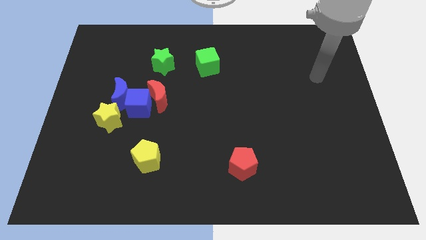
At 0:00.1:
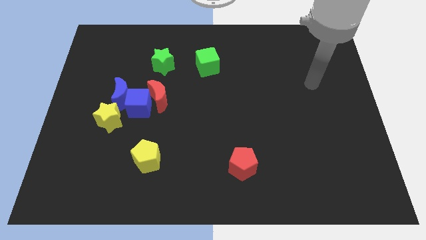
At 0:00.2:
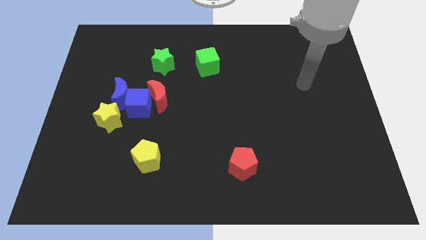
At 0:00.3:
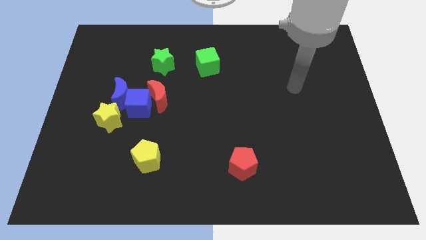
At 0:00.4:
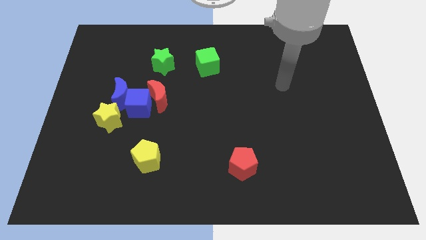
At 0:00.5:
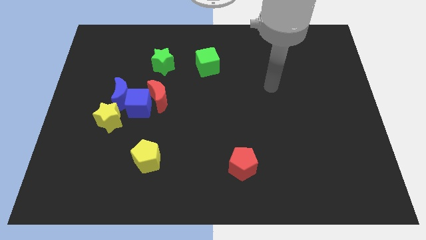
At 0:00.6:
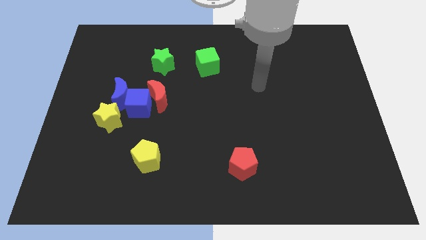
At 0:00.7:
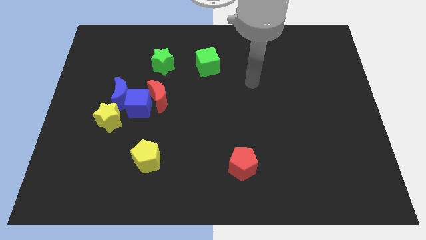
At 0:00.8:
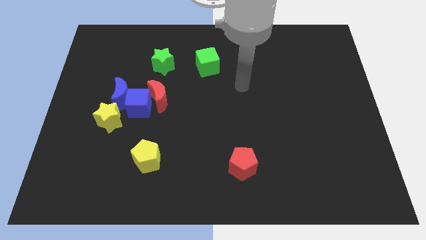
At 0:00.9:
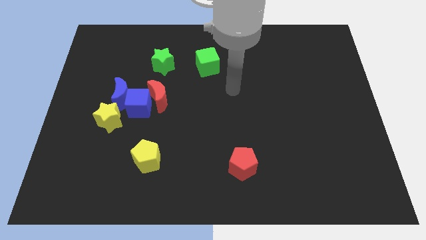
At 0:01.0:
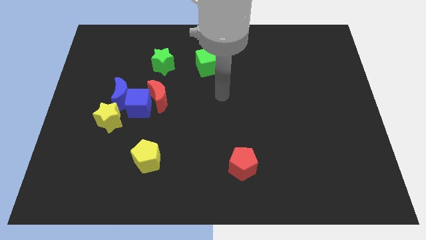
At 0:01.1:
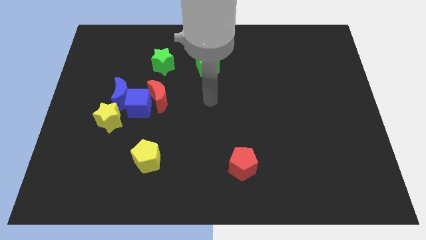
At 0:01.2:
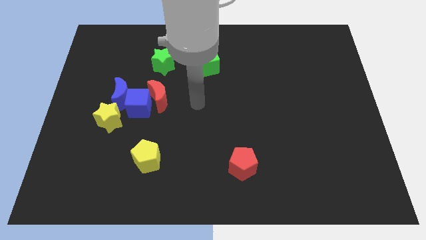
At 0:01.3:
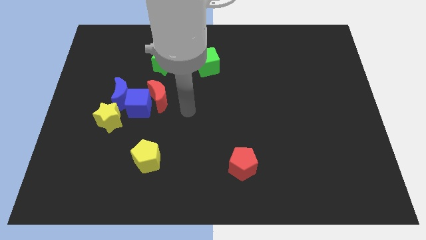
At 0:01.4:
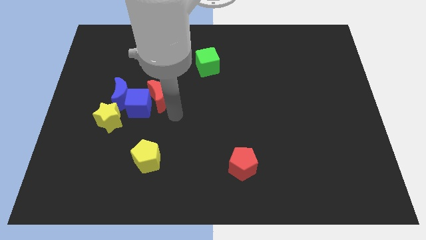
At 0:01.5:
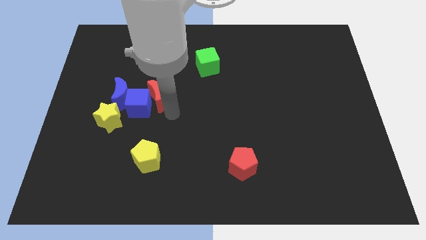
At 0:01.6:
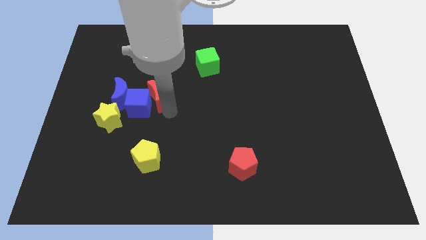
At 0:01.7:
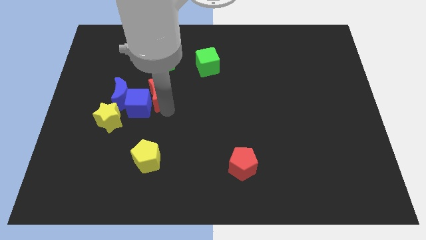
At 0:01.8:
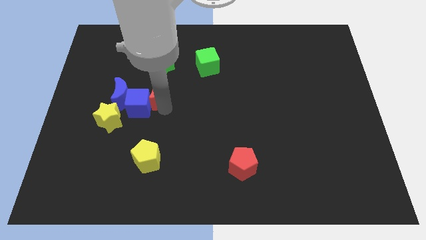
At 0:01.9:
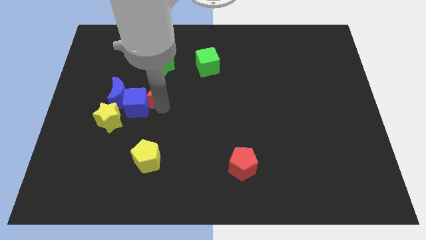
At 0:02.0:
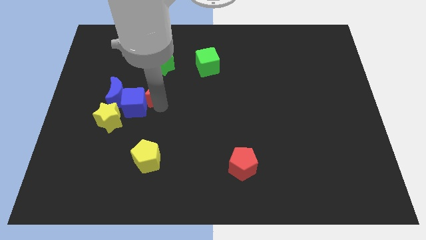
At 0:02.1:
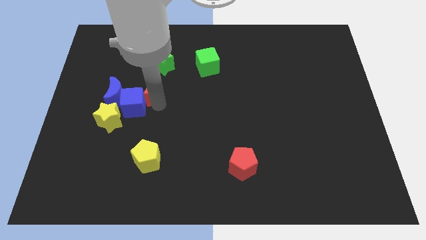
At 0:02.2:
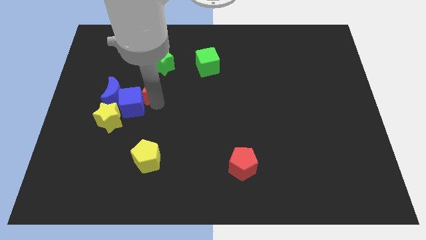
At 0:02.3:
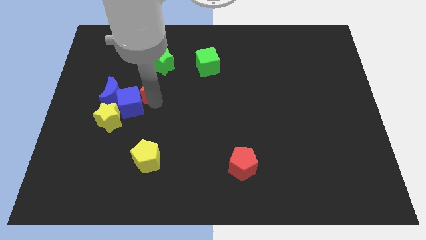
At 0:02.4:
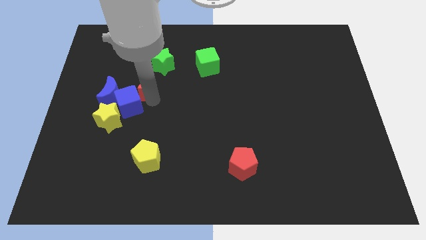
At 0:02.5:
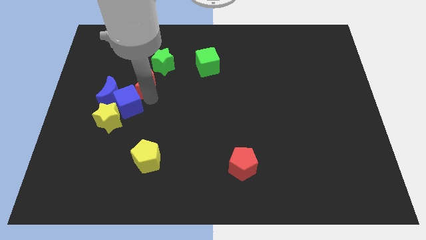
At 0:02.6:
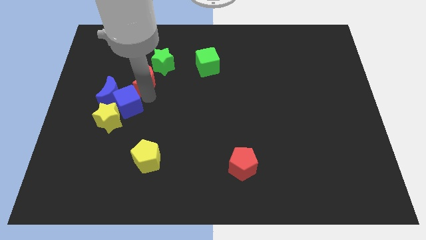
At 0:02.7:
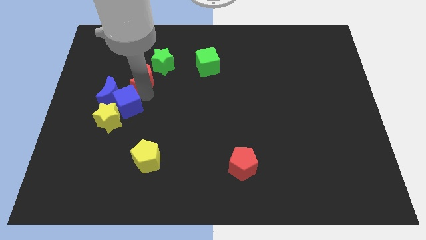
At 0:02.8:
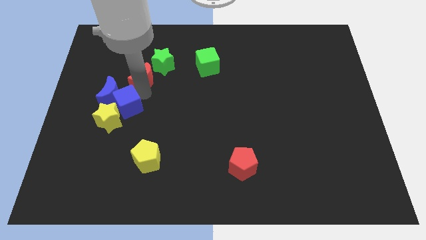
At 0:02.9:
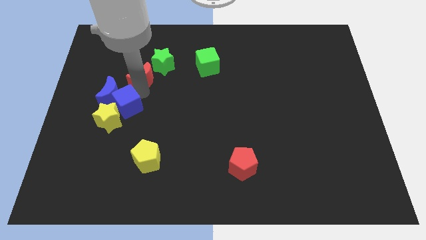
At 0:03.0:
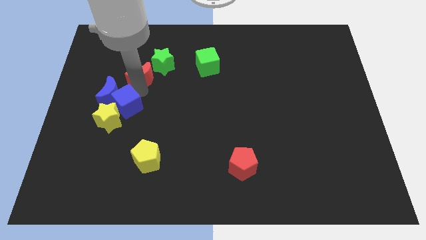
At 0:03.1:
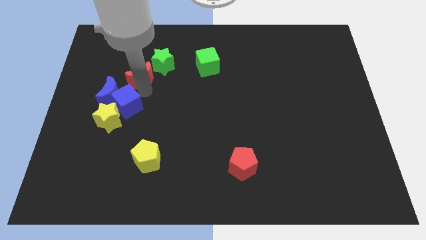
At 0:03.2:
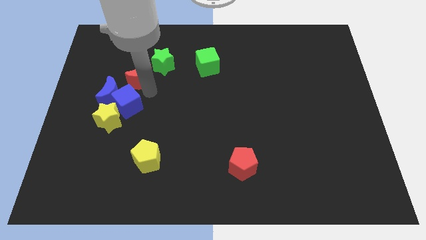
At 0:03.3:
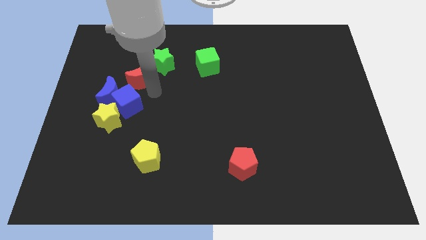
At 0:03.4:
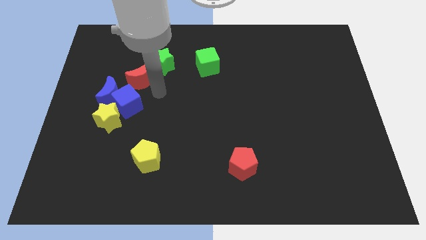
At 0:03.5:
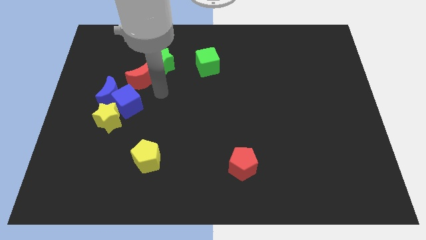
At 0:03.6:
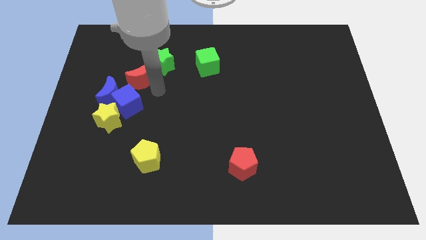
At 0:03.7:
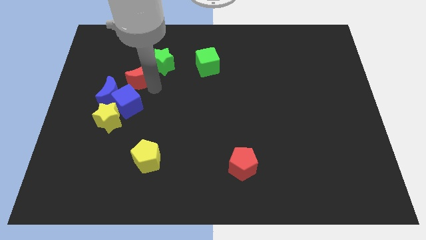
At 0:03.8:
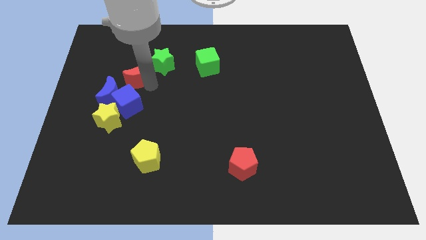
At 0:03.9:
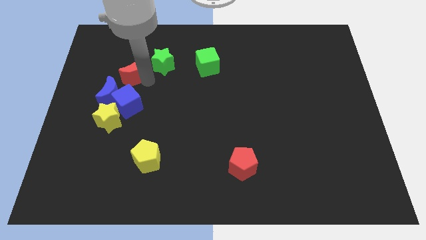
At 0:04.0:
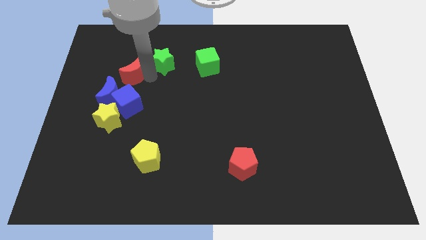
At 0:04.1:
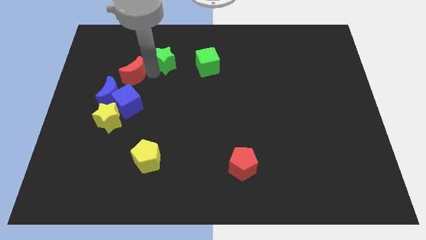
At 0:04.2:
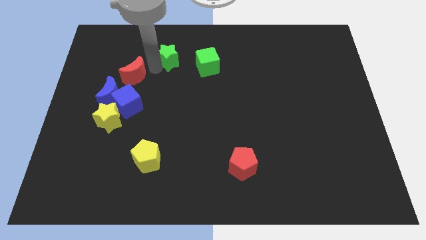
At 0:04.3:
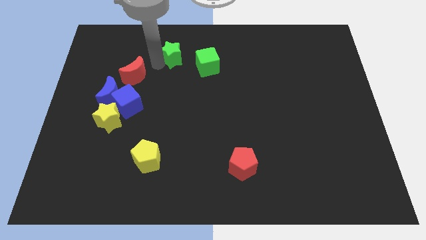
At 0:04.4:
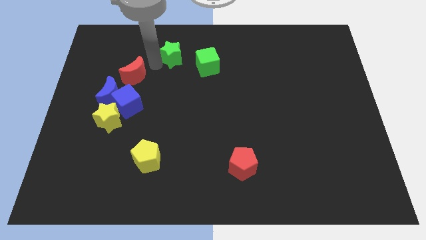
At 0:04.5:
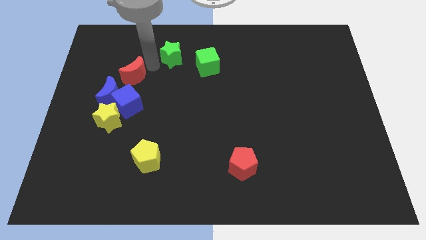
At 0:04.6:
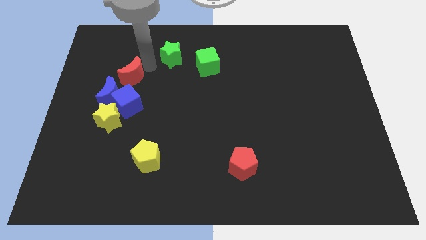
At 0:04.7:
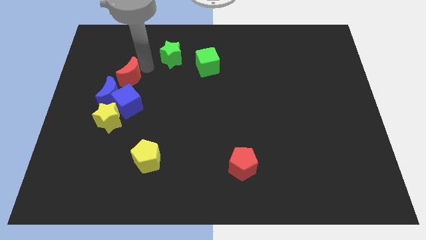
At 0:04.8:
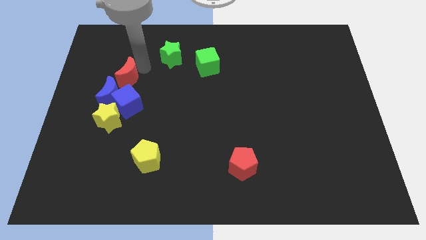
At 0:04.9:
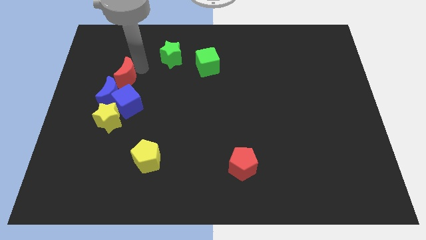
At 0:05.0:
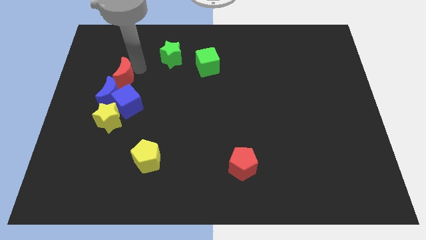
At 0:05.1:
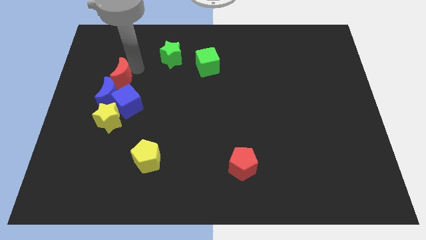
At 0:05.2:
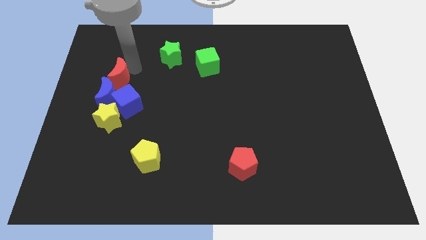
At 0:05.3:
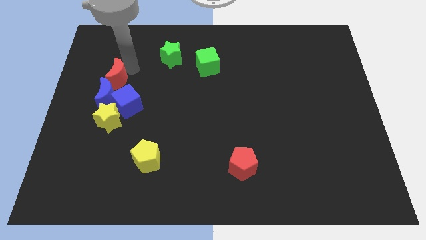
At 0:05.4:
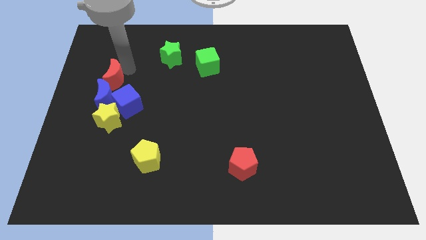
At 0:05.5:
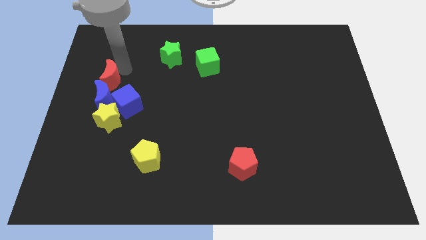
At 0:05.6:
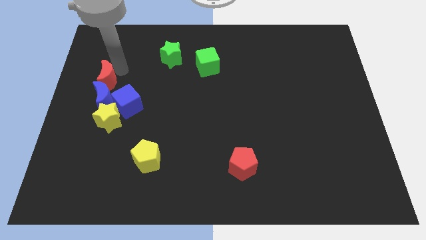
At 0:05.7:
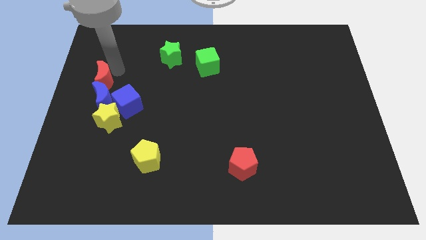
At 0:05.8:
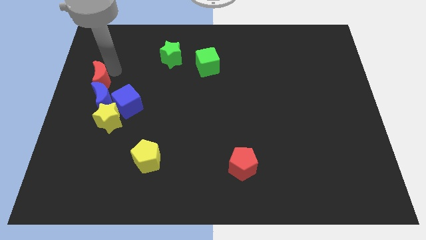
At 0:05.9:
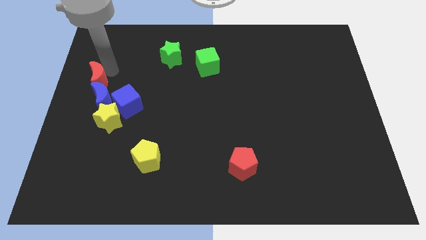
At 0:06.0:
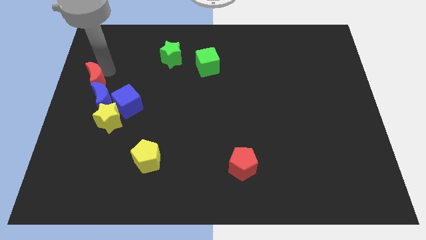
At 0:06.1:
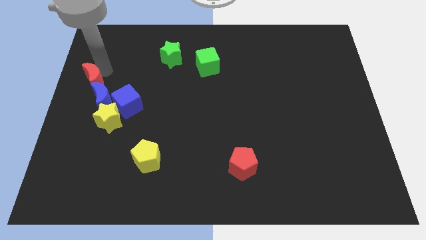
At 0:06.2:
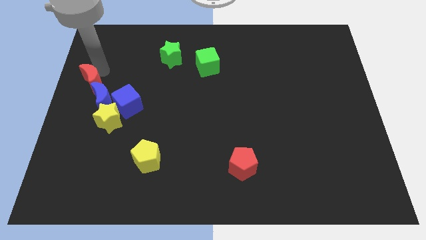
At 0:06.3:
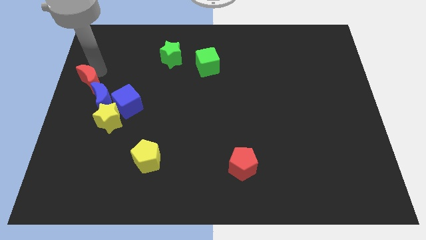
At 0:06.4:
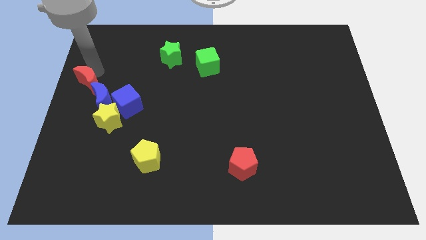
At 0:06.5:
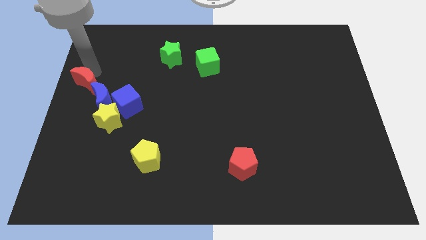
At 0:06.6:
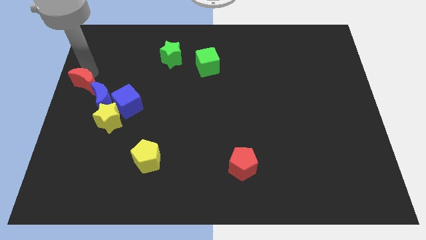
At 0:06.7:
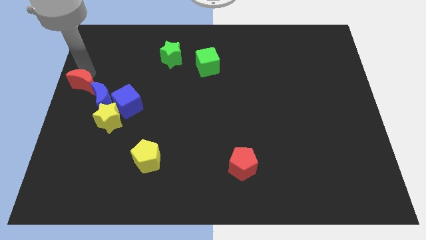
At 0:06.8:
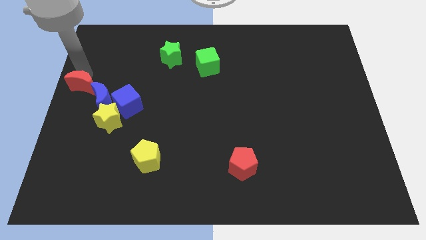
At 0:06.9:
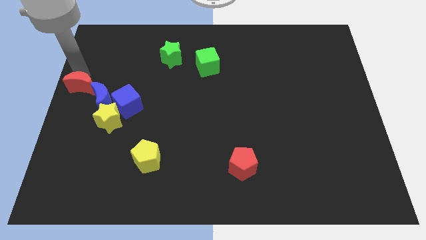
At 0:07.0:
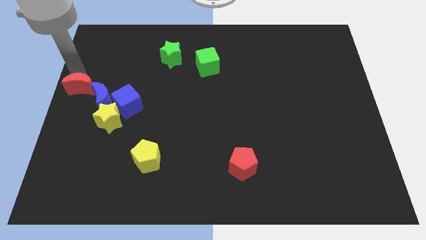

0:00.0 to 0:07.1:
put the red moon to the top left side of the yellow star

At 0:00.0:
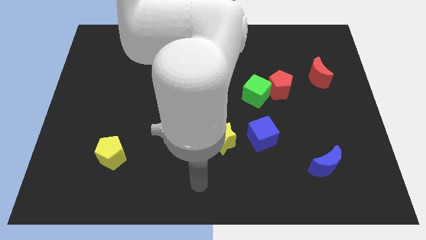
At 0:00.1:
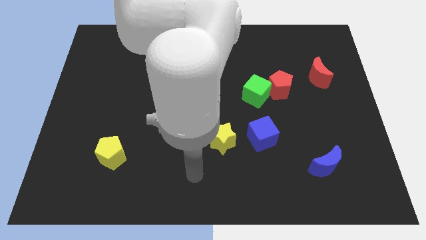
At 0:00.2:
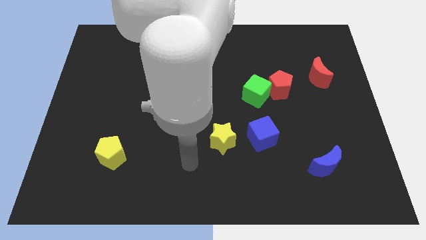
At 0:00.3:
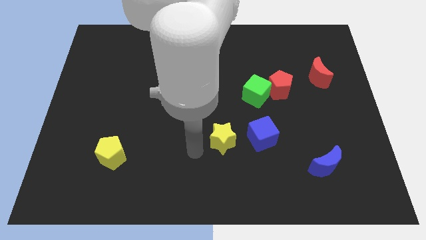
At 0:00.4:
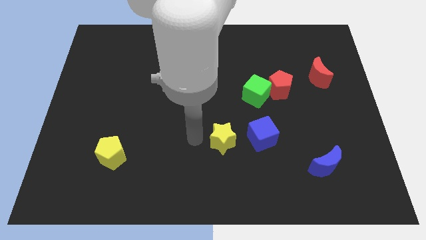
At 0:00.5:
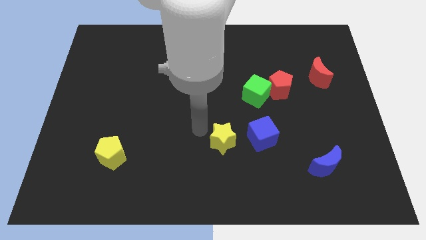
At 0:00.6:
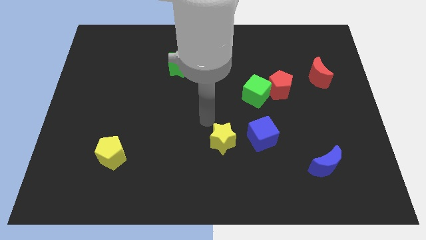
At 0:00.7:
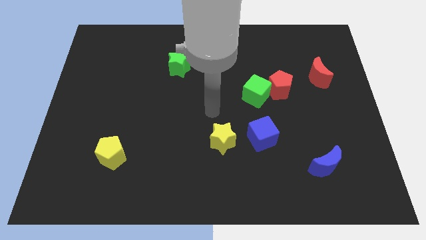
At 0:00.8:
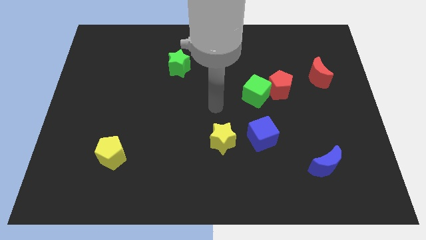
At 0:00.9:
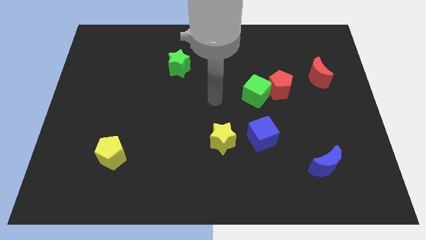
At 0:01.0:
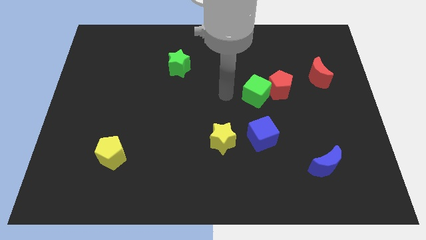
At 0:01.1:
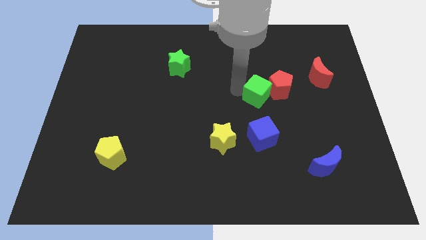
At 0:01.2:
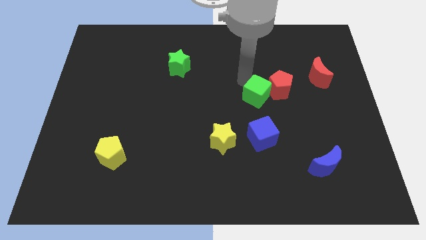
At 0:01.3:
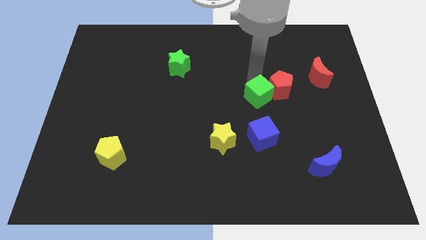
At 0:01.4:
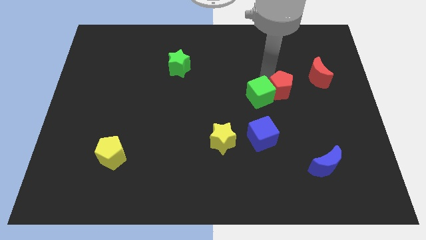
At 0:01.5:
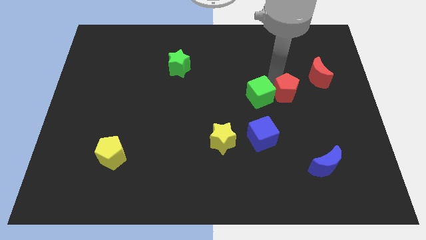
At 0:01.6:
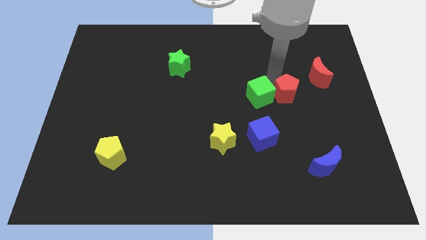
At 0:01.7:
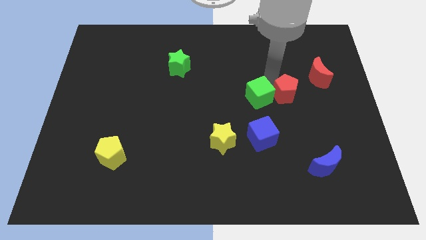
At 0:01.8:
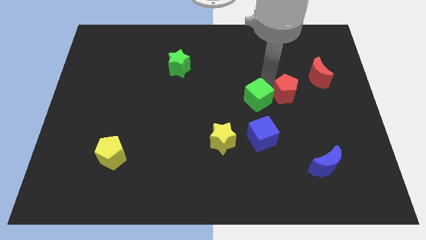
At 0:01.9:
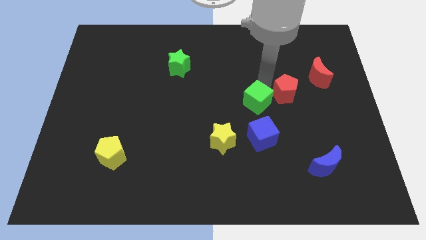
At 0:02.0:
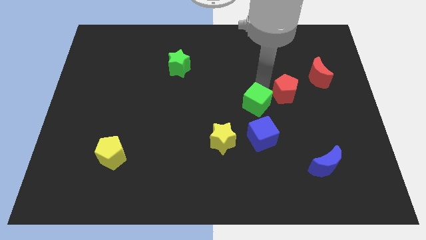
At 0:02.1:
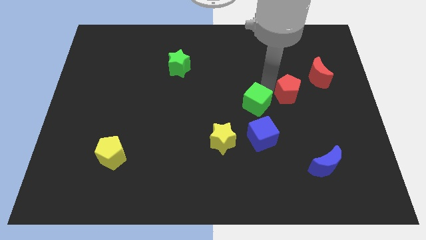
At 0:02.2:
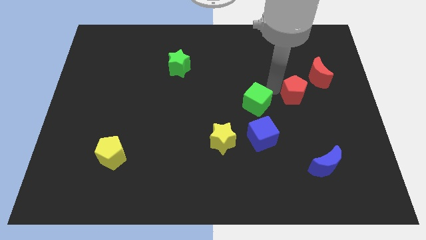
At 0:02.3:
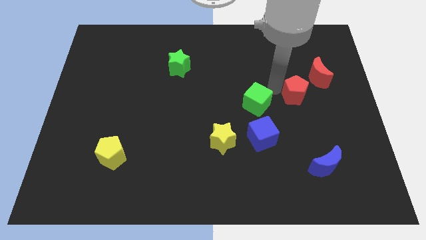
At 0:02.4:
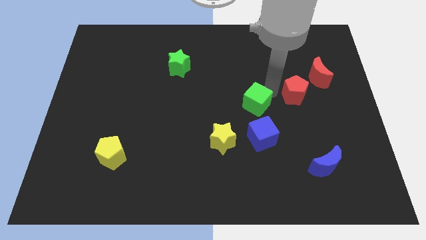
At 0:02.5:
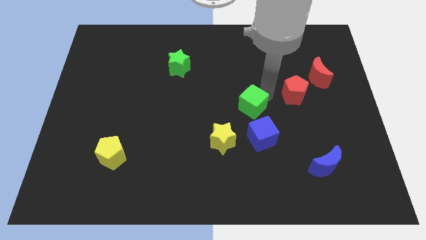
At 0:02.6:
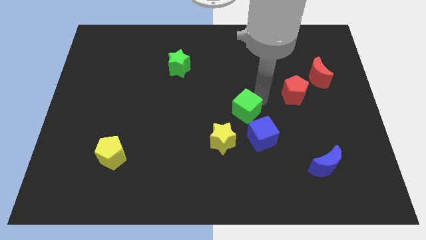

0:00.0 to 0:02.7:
slide the green cube to the top left of the blue cube
